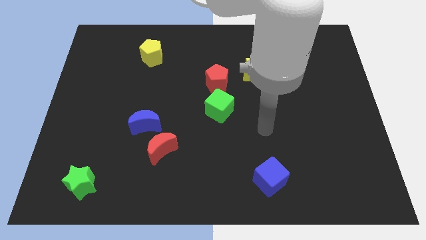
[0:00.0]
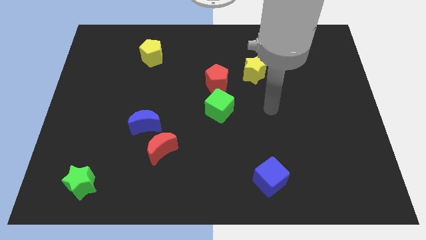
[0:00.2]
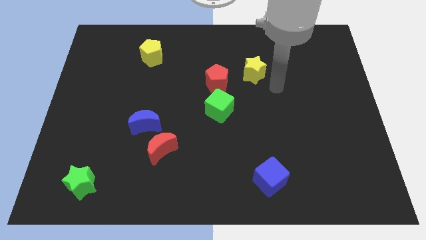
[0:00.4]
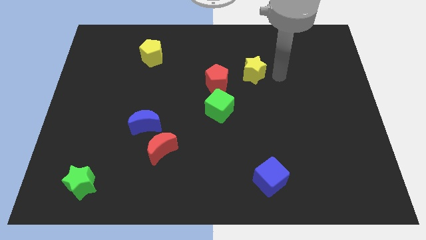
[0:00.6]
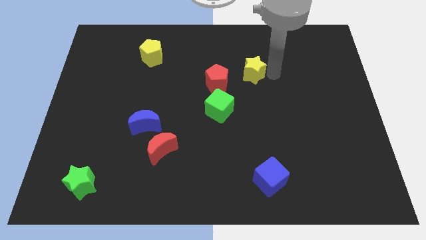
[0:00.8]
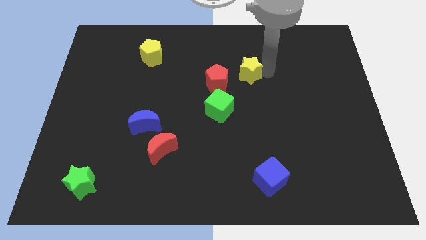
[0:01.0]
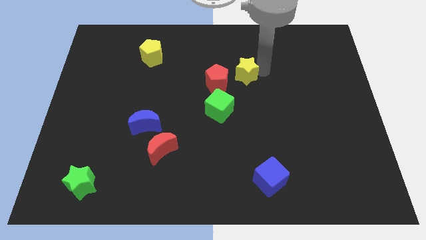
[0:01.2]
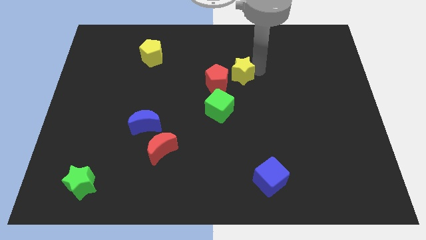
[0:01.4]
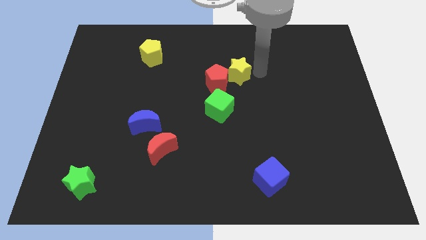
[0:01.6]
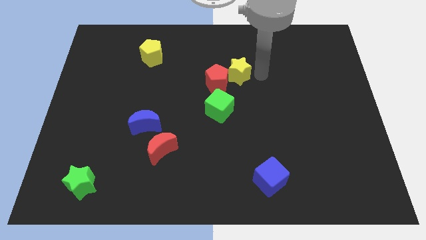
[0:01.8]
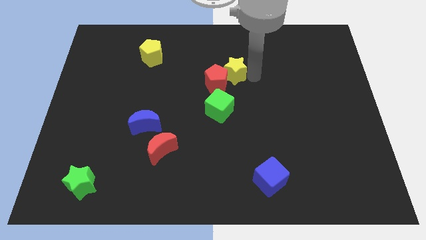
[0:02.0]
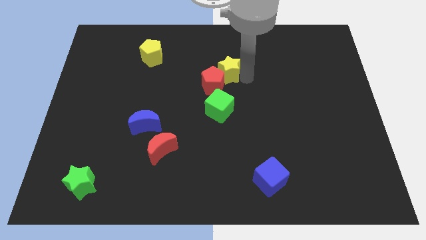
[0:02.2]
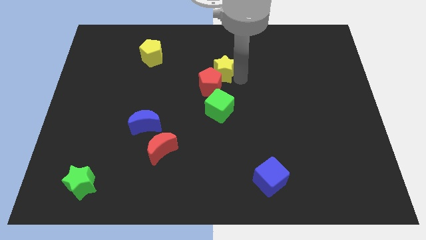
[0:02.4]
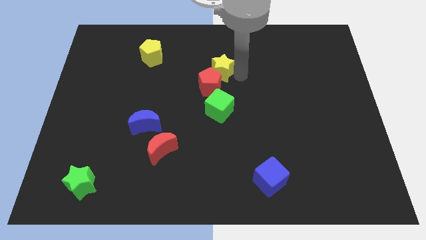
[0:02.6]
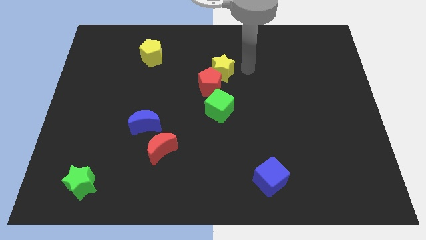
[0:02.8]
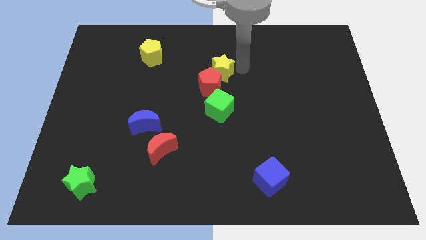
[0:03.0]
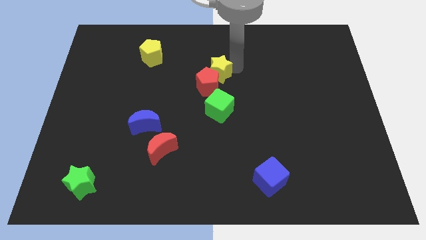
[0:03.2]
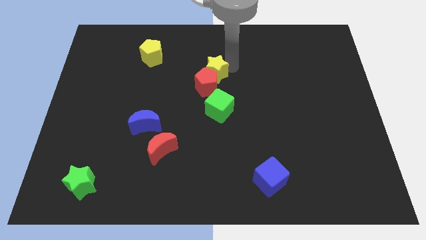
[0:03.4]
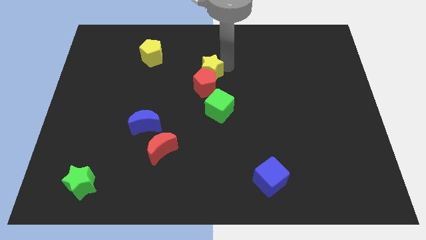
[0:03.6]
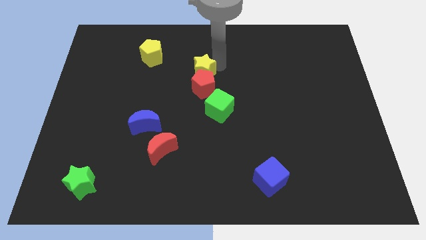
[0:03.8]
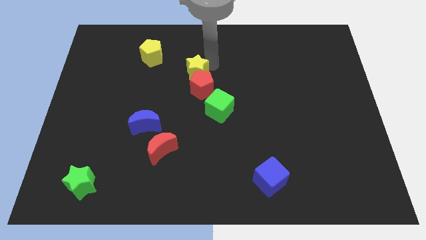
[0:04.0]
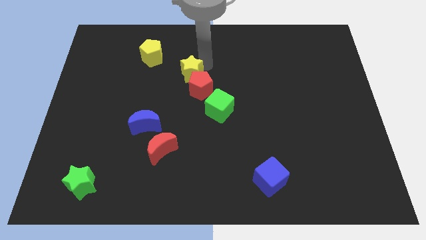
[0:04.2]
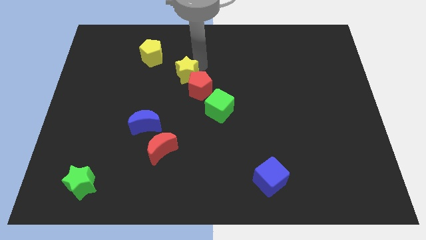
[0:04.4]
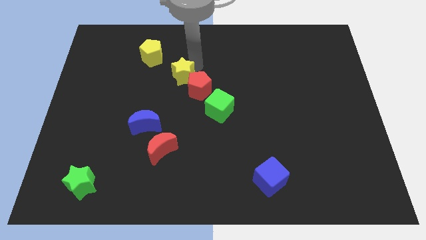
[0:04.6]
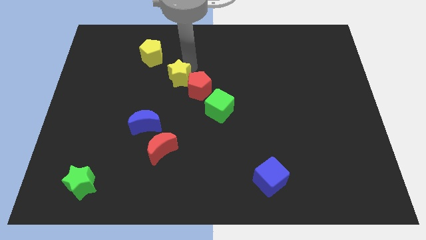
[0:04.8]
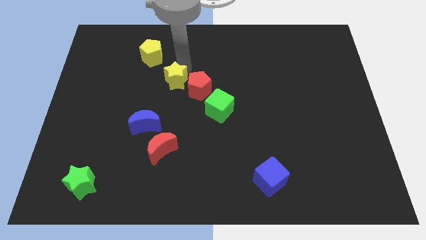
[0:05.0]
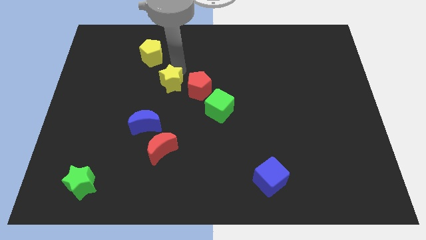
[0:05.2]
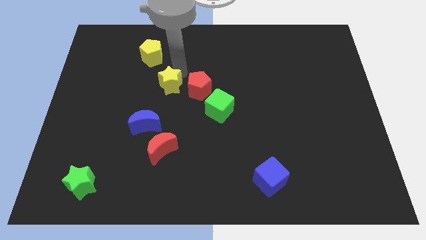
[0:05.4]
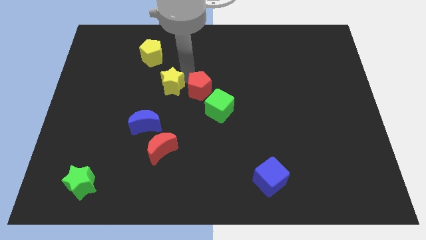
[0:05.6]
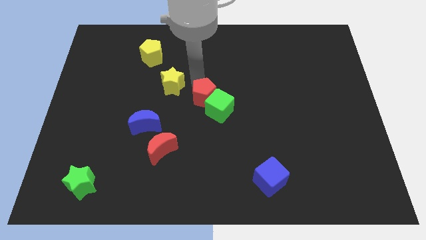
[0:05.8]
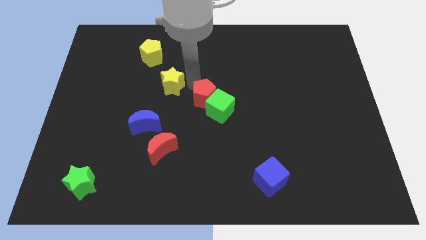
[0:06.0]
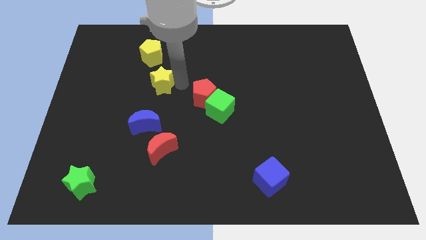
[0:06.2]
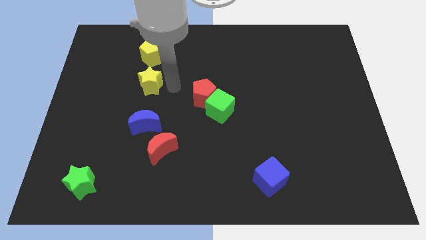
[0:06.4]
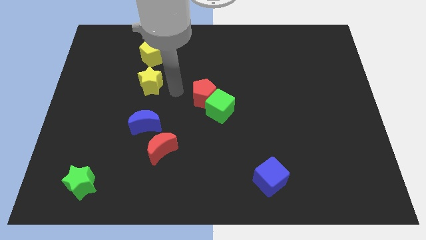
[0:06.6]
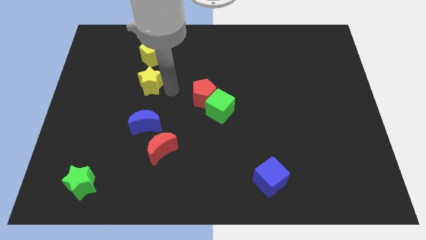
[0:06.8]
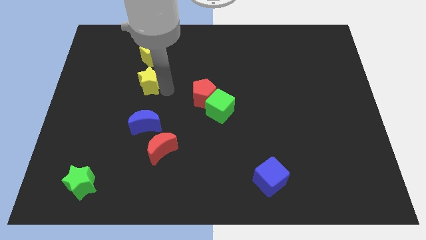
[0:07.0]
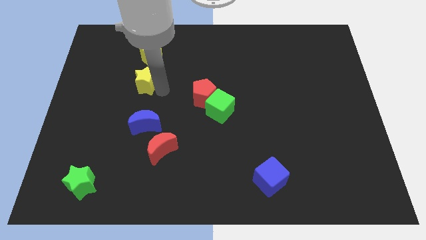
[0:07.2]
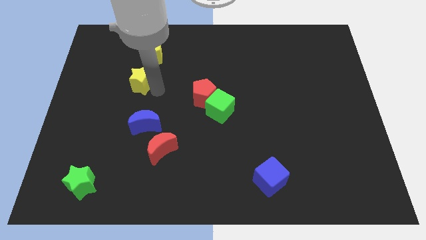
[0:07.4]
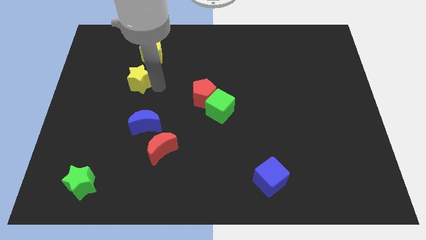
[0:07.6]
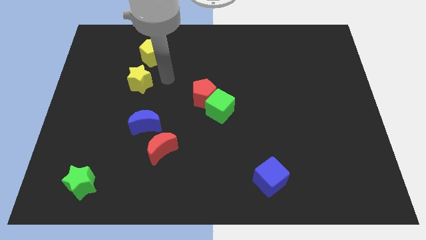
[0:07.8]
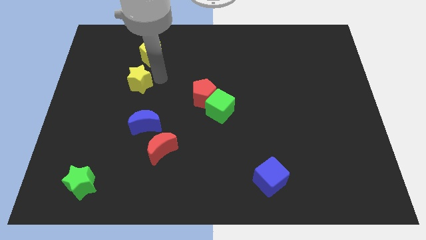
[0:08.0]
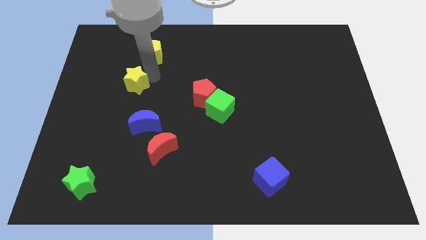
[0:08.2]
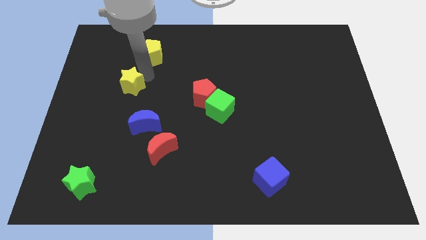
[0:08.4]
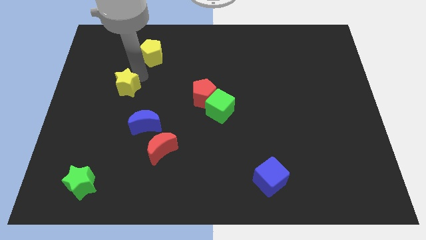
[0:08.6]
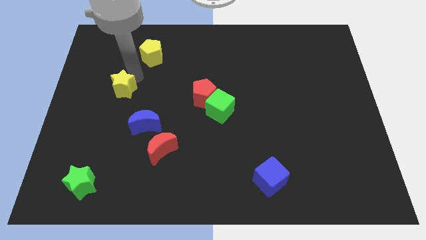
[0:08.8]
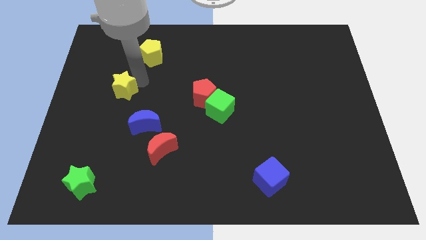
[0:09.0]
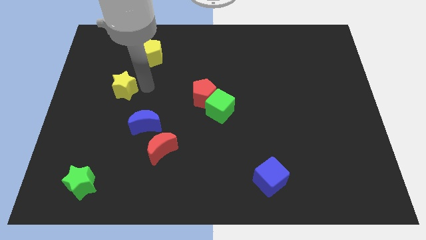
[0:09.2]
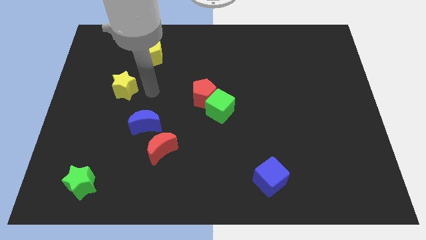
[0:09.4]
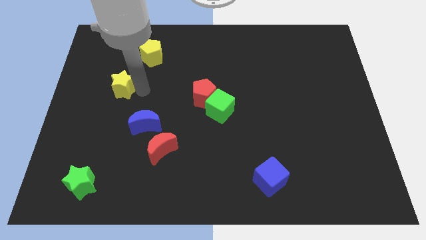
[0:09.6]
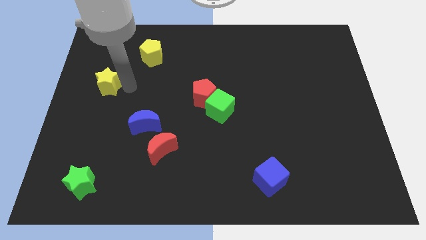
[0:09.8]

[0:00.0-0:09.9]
slide the yellow star to the left side of the board

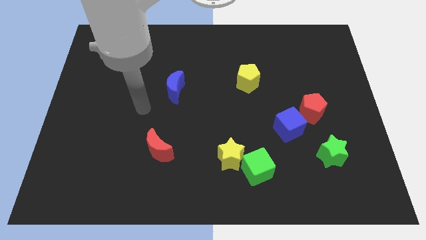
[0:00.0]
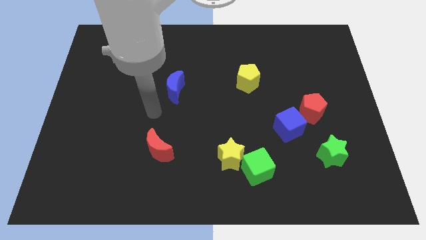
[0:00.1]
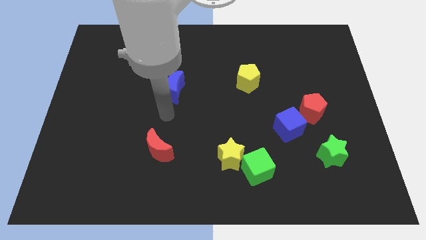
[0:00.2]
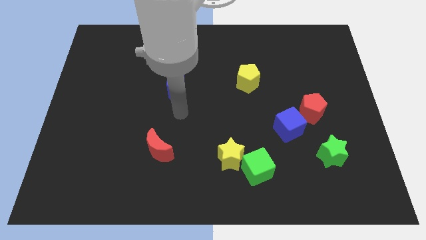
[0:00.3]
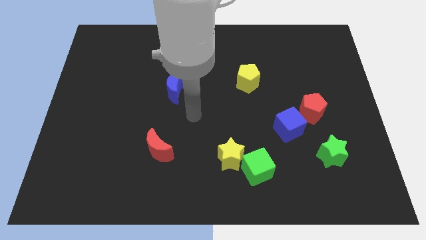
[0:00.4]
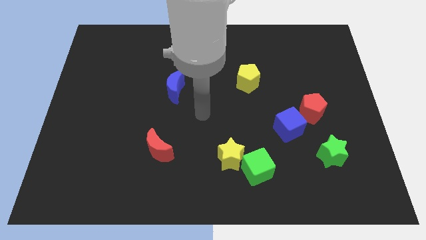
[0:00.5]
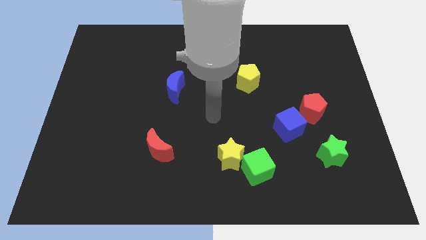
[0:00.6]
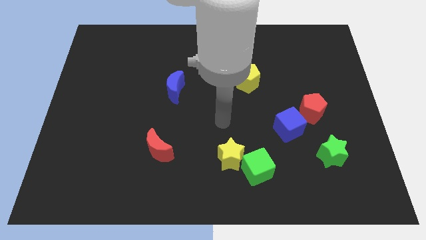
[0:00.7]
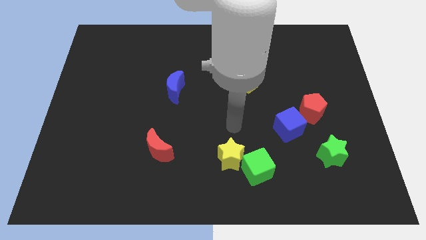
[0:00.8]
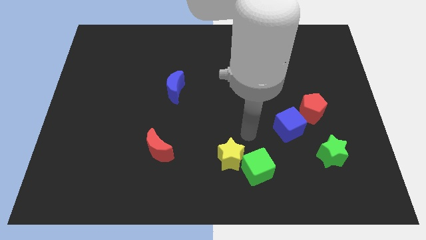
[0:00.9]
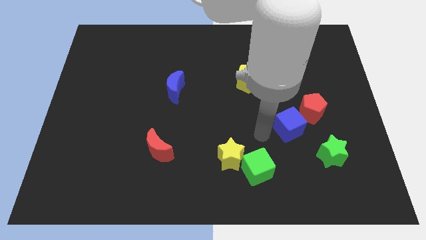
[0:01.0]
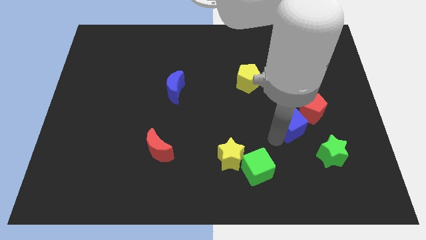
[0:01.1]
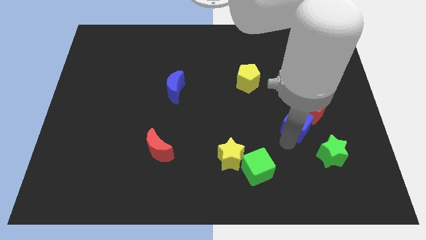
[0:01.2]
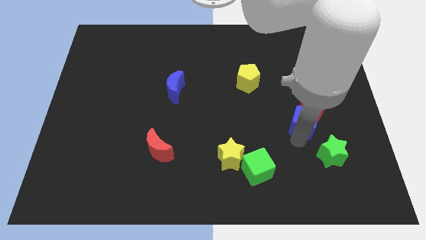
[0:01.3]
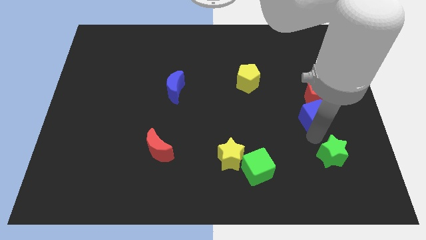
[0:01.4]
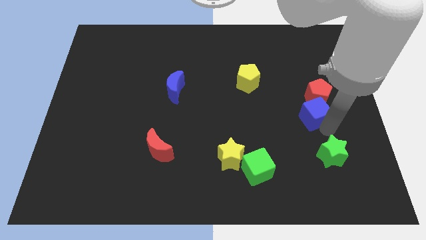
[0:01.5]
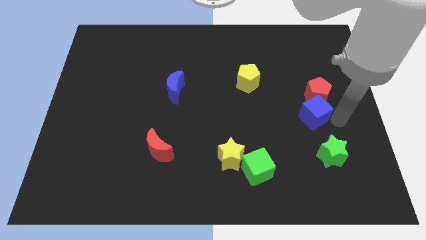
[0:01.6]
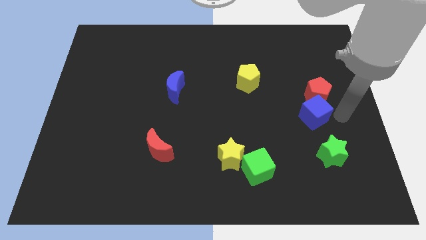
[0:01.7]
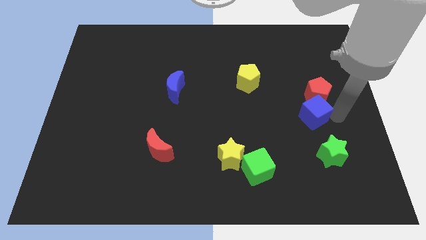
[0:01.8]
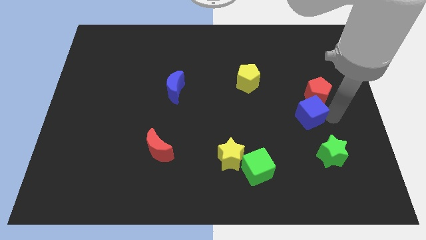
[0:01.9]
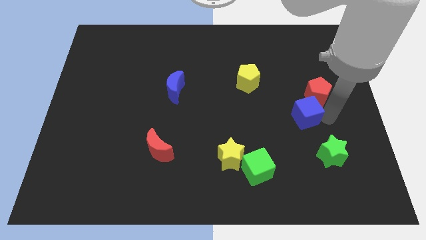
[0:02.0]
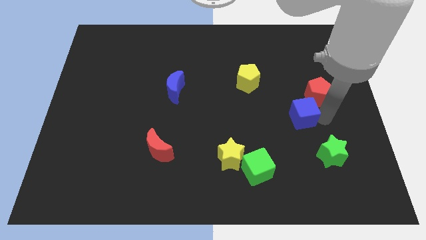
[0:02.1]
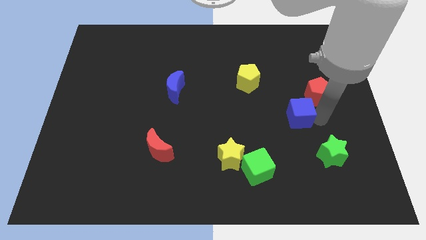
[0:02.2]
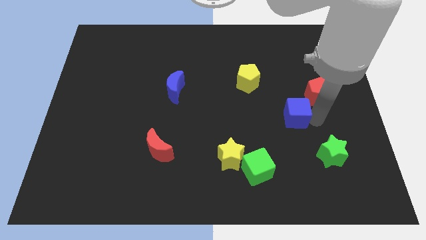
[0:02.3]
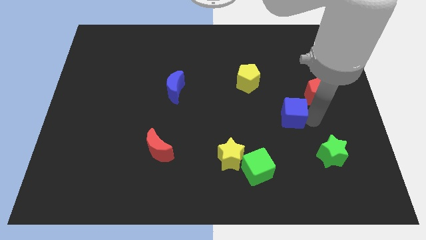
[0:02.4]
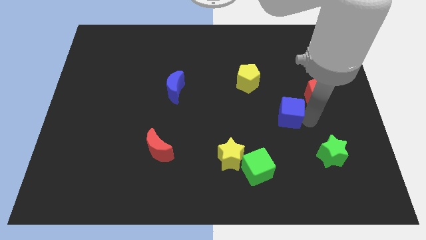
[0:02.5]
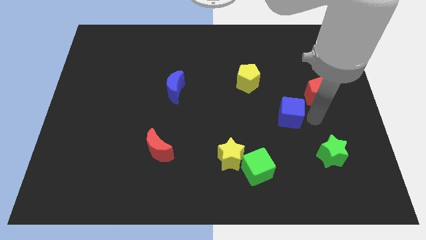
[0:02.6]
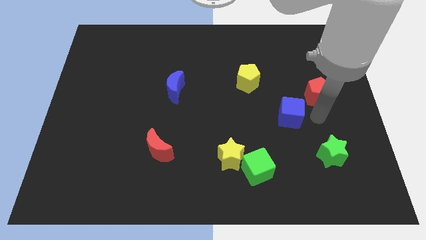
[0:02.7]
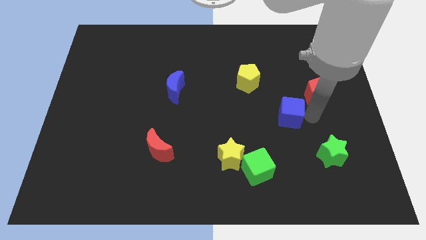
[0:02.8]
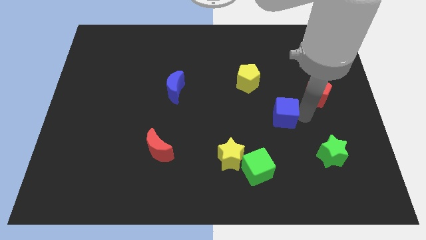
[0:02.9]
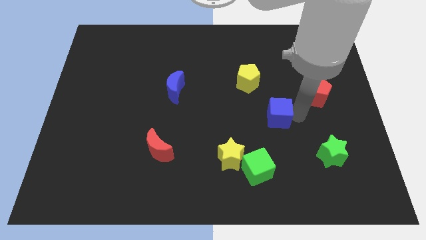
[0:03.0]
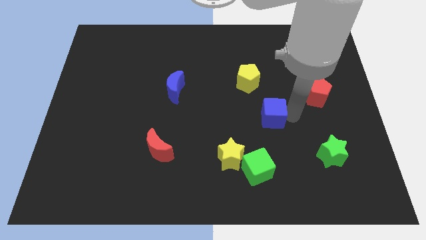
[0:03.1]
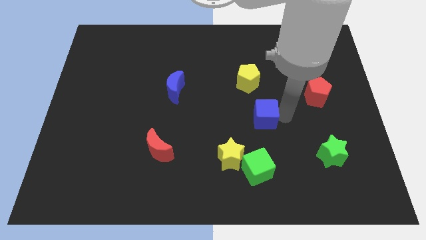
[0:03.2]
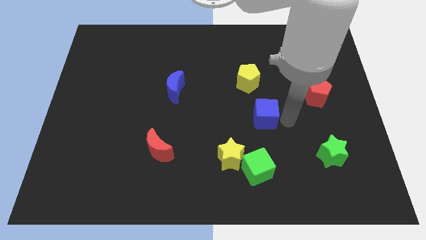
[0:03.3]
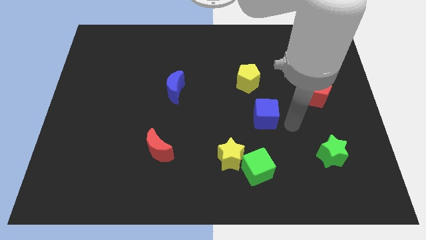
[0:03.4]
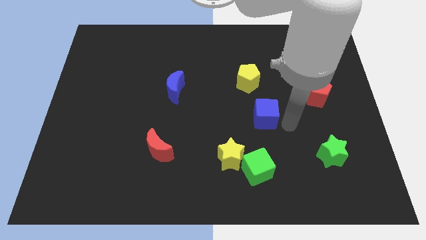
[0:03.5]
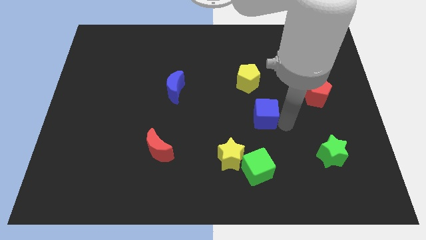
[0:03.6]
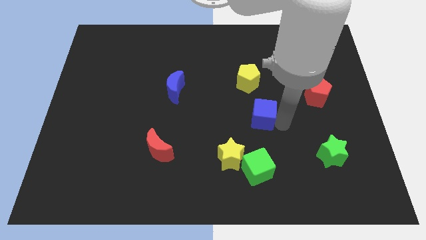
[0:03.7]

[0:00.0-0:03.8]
move the blue cube to the middle
